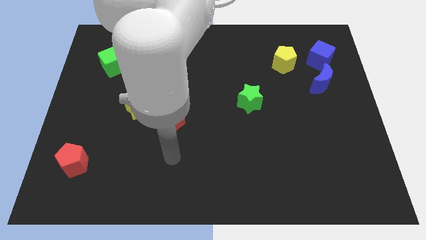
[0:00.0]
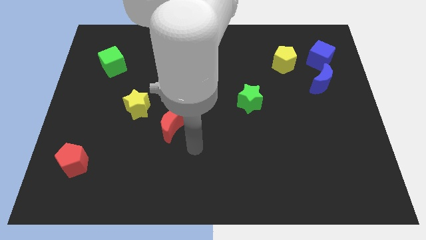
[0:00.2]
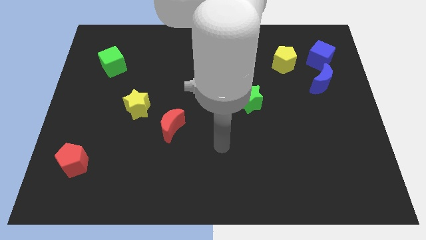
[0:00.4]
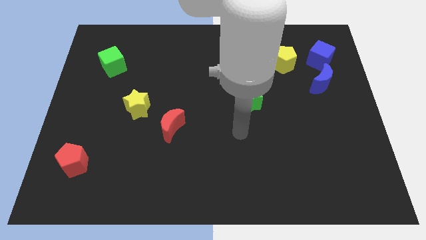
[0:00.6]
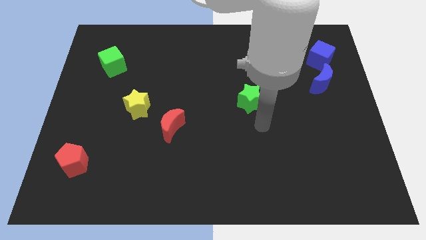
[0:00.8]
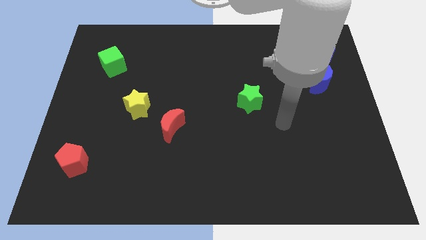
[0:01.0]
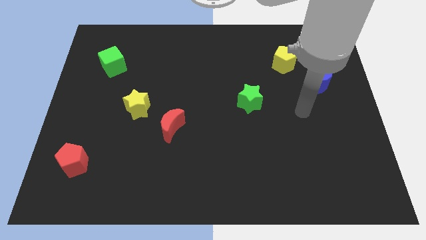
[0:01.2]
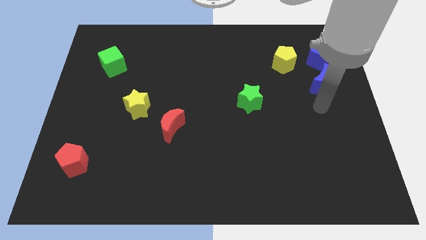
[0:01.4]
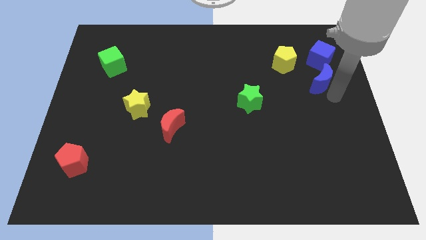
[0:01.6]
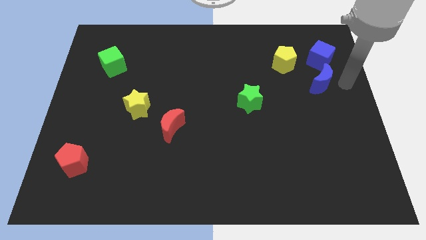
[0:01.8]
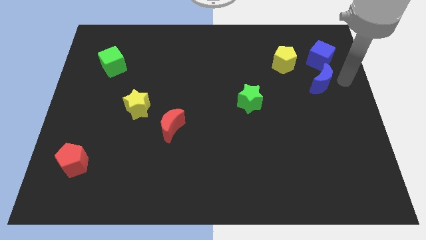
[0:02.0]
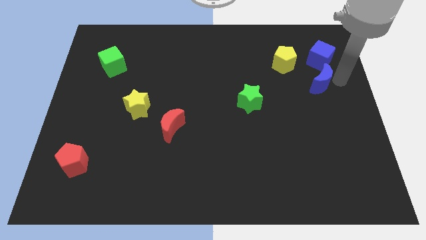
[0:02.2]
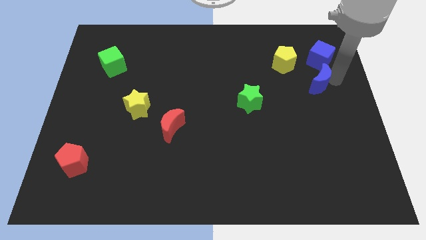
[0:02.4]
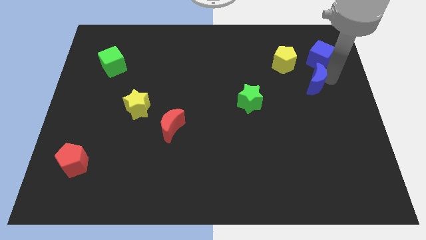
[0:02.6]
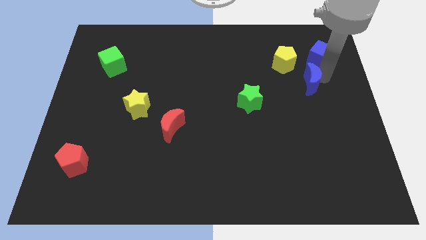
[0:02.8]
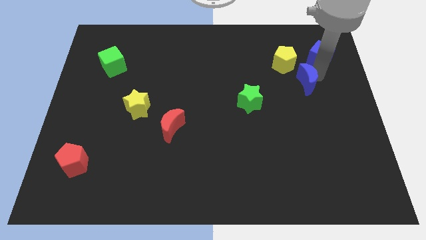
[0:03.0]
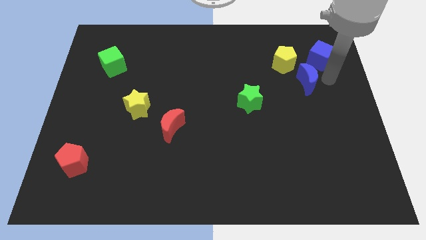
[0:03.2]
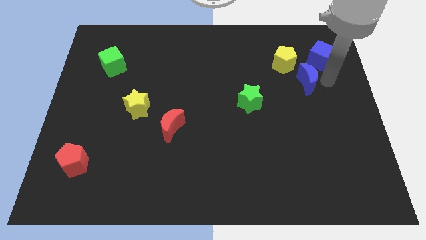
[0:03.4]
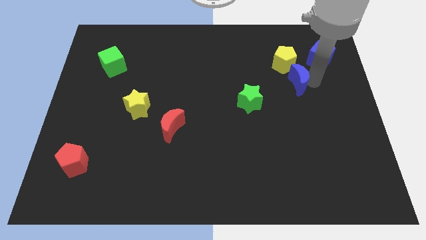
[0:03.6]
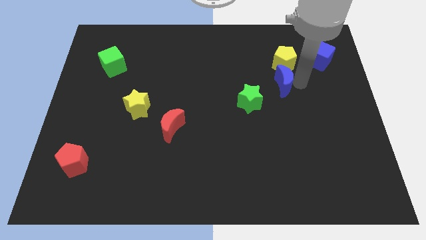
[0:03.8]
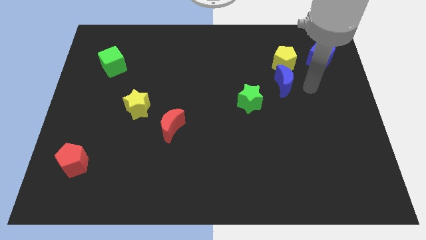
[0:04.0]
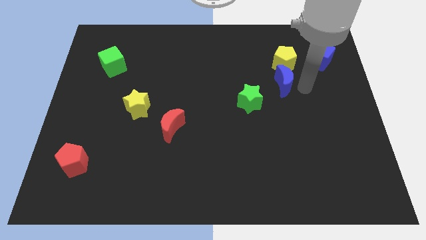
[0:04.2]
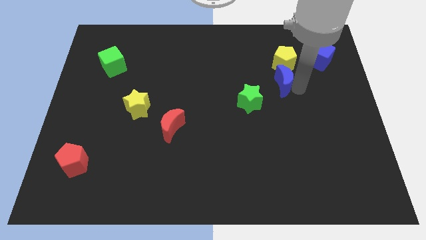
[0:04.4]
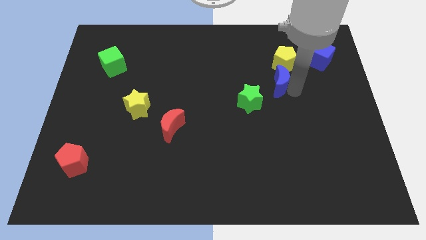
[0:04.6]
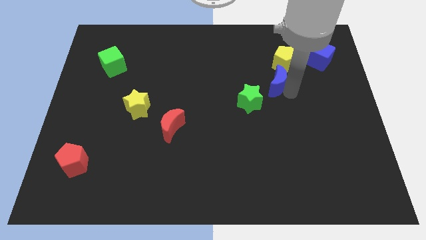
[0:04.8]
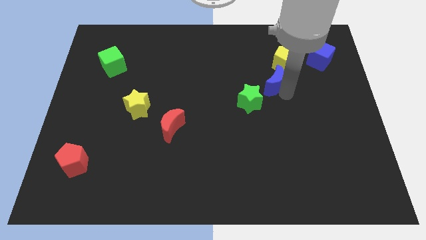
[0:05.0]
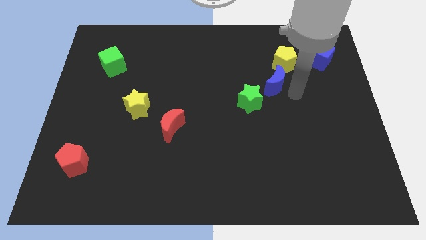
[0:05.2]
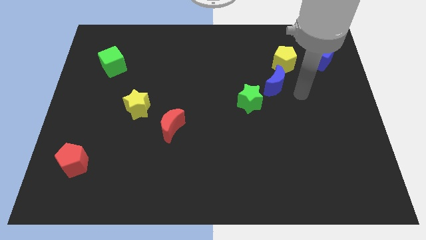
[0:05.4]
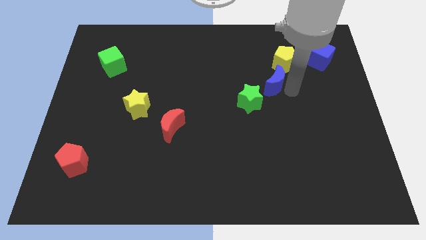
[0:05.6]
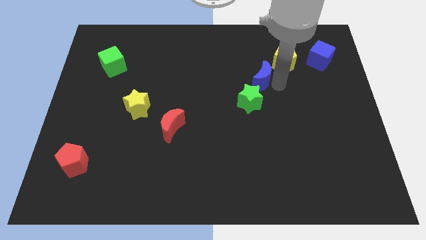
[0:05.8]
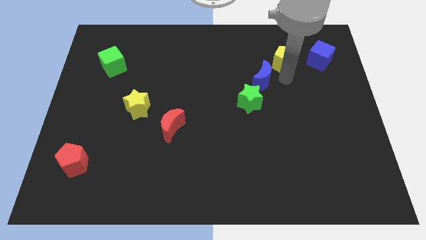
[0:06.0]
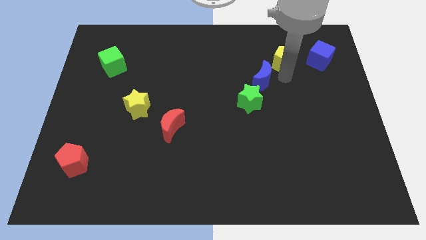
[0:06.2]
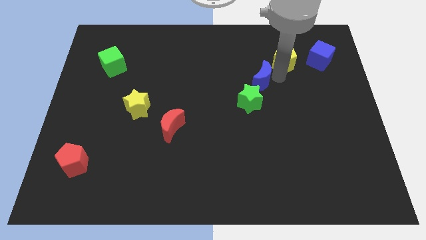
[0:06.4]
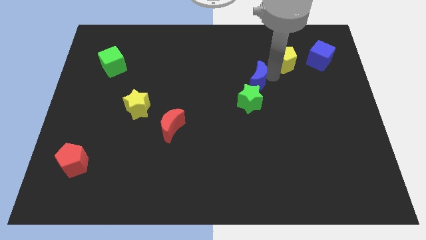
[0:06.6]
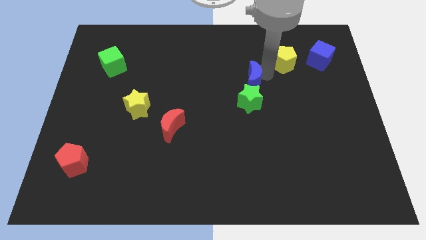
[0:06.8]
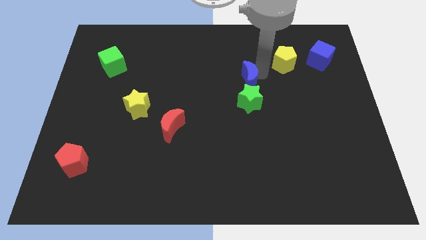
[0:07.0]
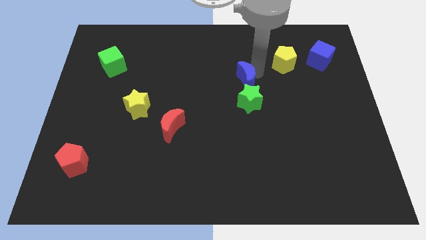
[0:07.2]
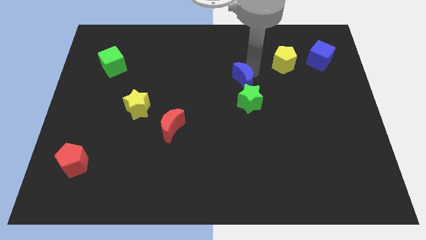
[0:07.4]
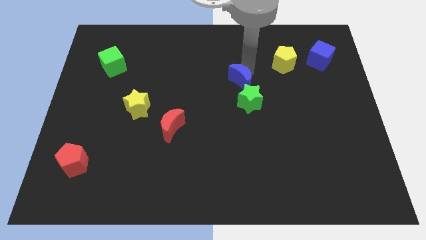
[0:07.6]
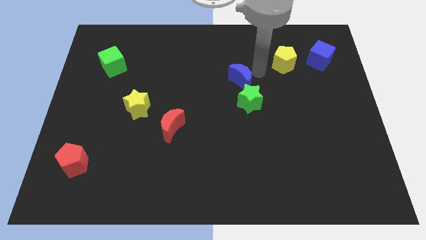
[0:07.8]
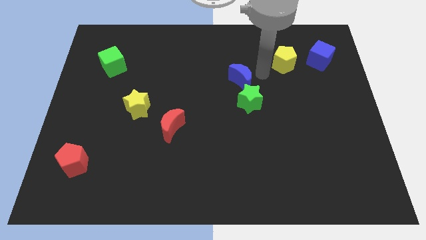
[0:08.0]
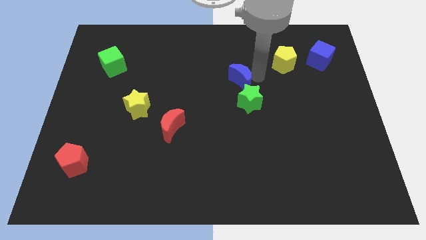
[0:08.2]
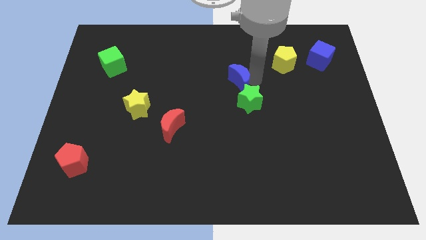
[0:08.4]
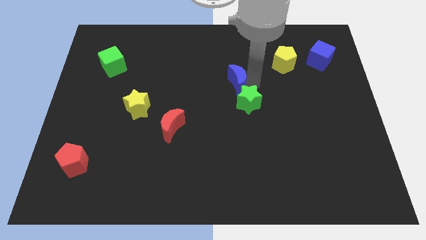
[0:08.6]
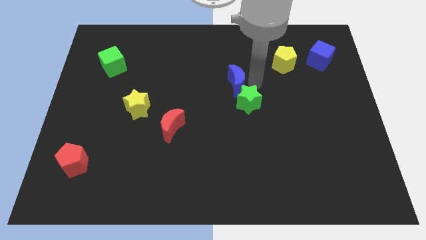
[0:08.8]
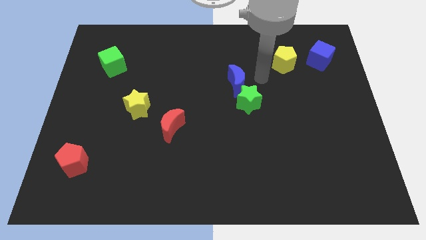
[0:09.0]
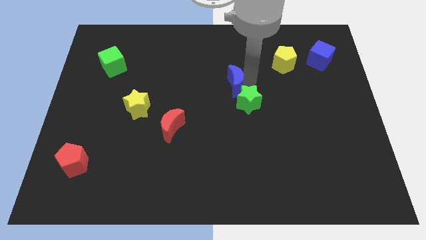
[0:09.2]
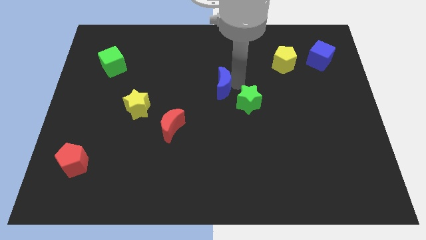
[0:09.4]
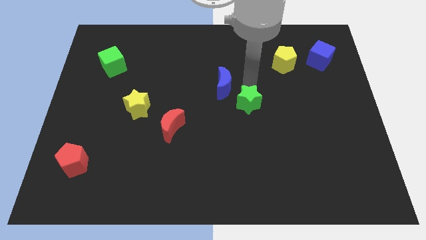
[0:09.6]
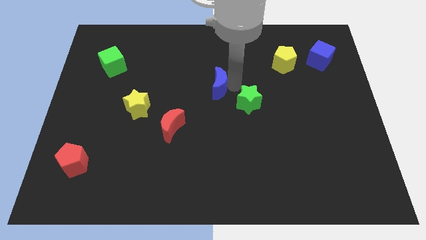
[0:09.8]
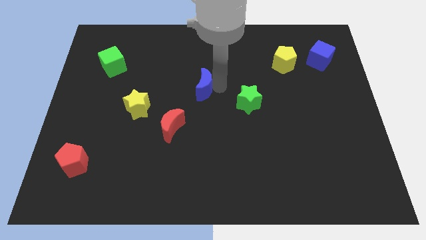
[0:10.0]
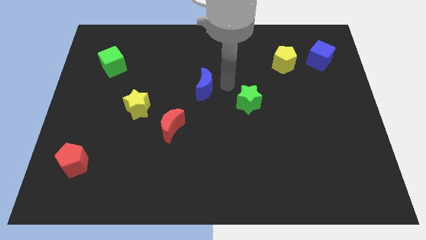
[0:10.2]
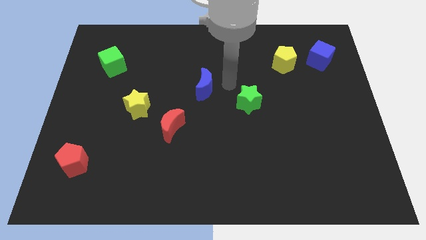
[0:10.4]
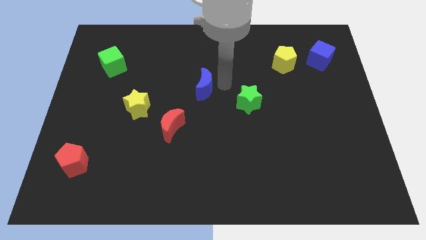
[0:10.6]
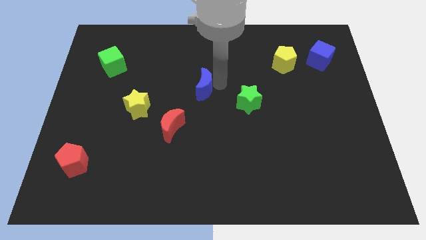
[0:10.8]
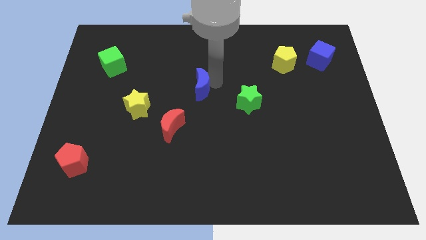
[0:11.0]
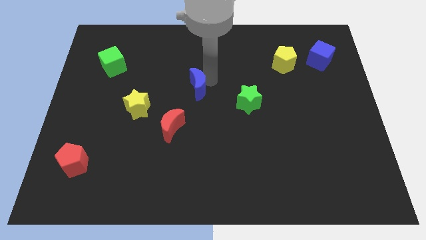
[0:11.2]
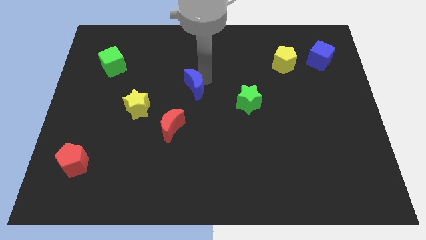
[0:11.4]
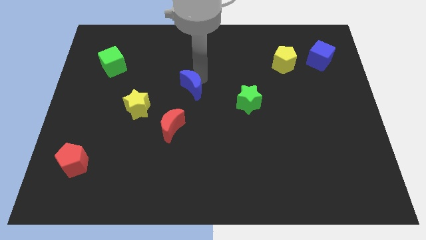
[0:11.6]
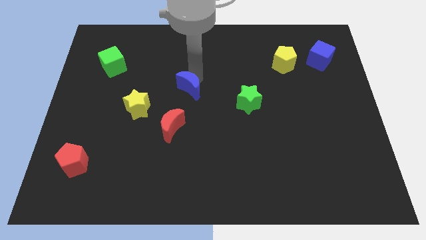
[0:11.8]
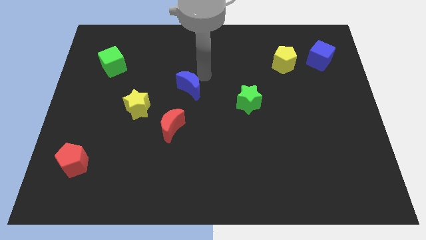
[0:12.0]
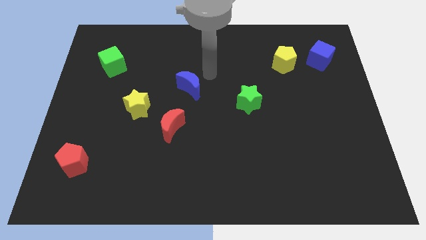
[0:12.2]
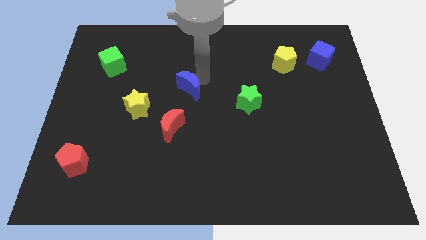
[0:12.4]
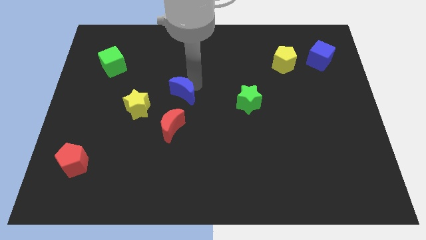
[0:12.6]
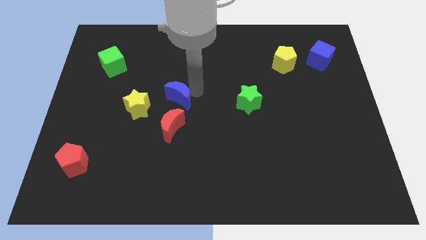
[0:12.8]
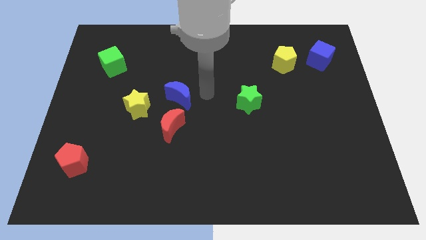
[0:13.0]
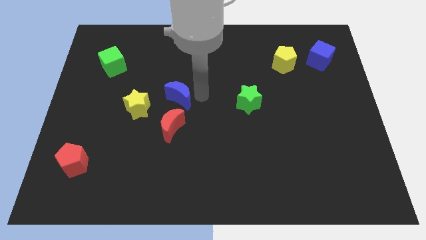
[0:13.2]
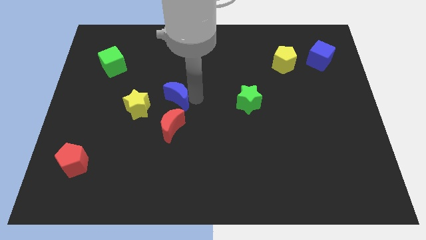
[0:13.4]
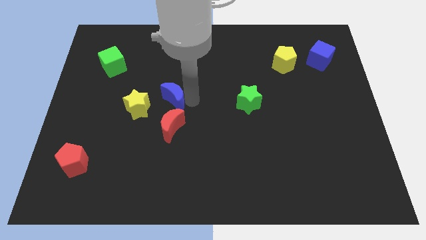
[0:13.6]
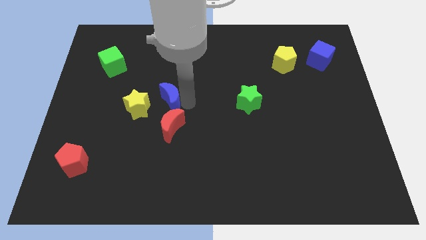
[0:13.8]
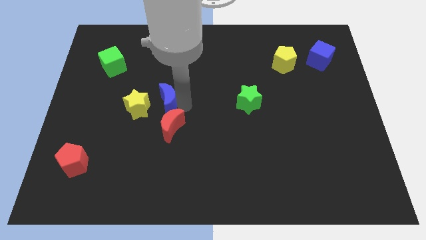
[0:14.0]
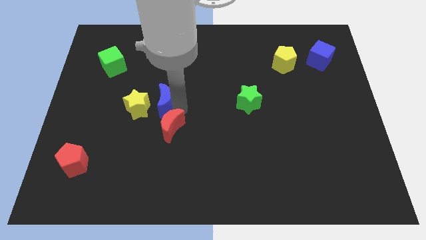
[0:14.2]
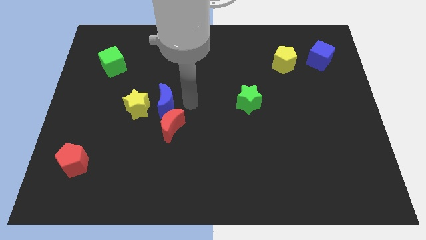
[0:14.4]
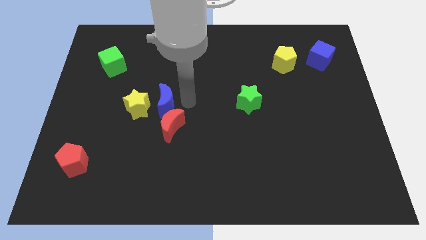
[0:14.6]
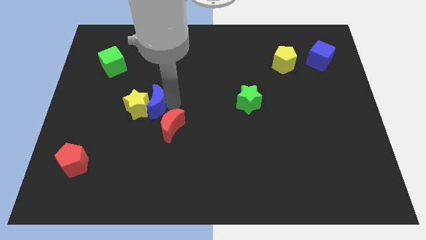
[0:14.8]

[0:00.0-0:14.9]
move the blue moon next to the yellow star
